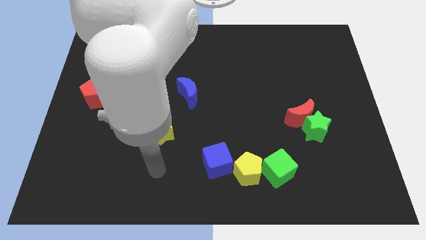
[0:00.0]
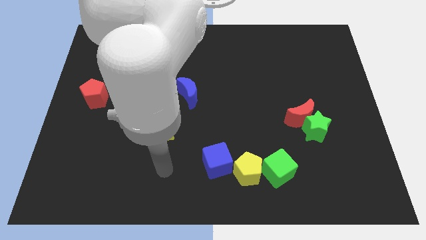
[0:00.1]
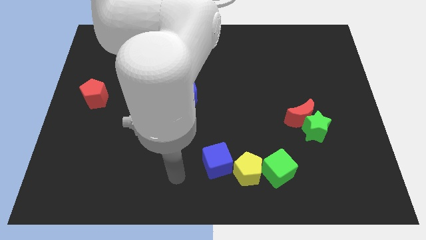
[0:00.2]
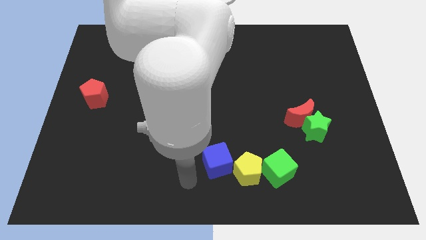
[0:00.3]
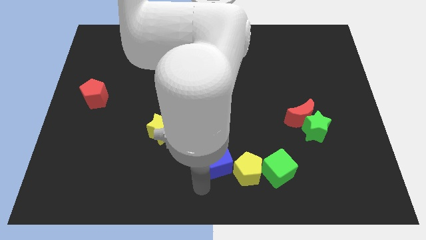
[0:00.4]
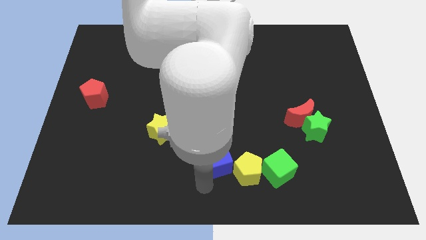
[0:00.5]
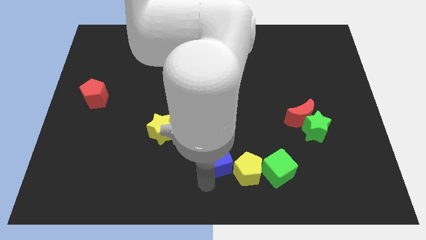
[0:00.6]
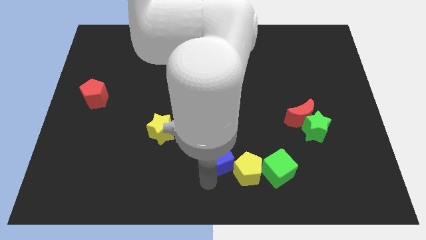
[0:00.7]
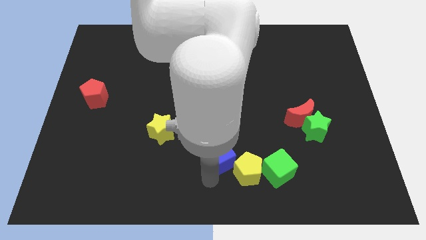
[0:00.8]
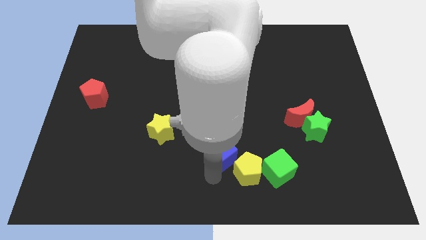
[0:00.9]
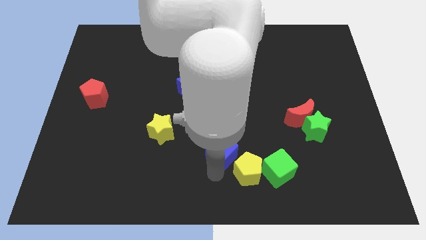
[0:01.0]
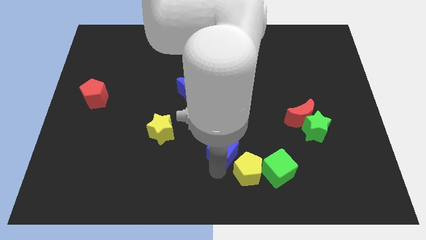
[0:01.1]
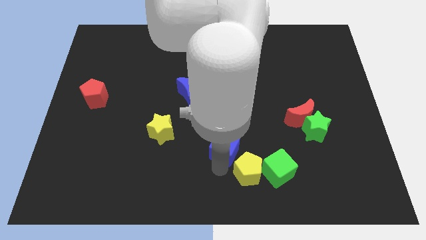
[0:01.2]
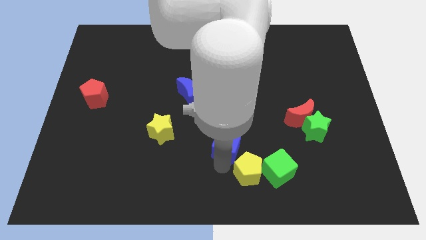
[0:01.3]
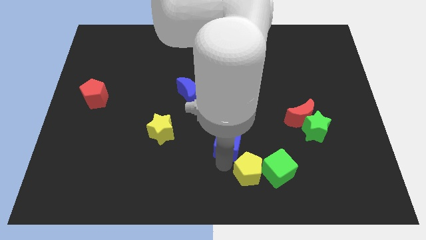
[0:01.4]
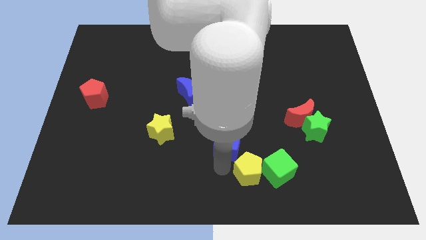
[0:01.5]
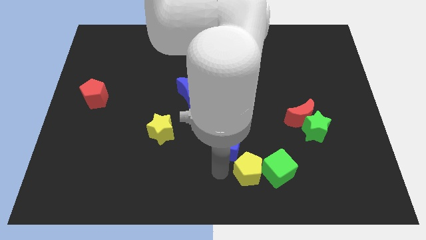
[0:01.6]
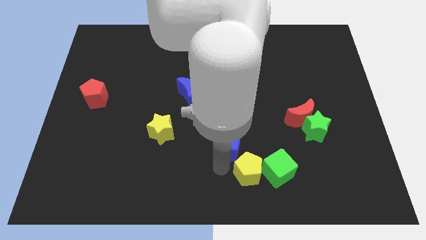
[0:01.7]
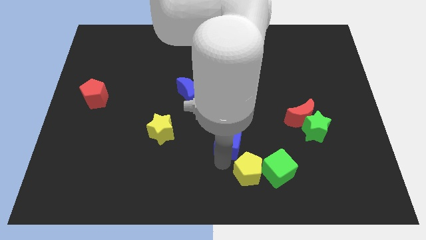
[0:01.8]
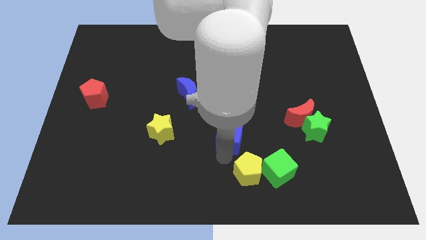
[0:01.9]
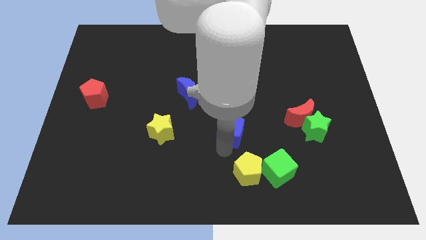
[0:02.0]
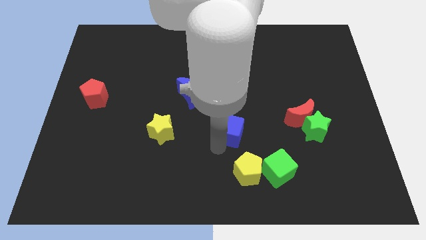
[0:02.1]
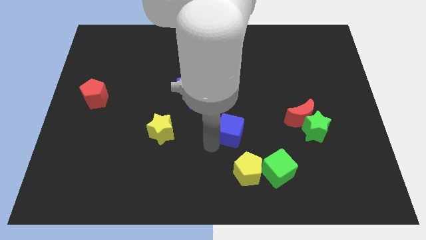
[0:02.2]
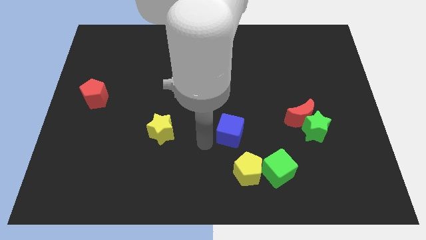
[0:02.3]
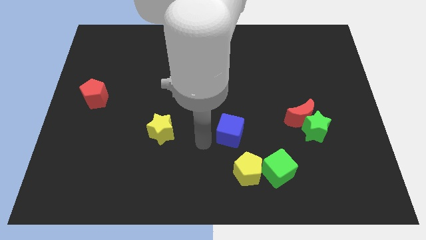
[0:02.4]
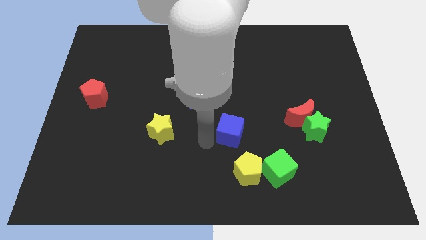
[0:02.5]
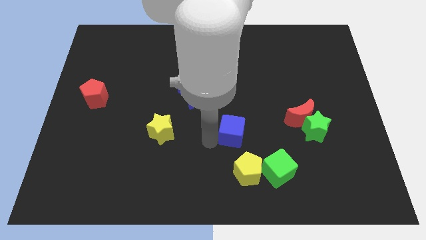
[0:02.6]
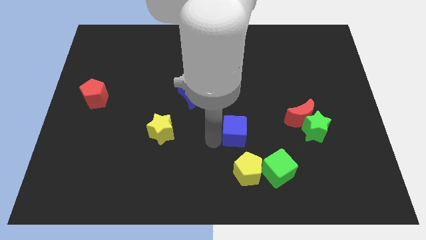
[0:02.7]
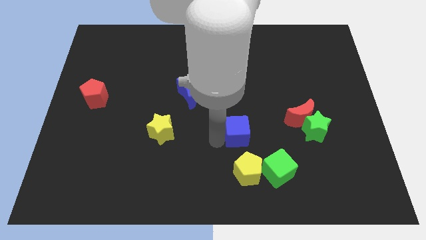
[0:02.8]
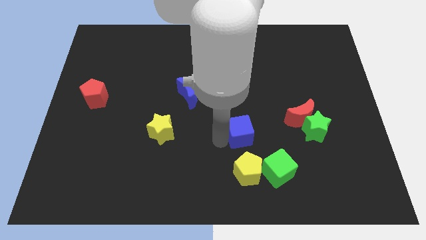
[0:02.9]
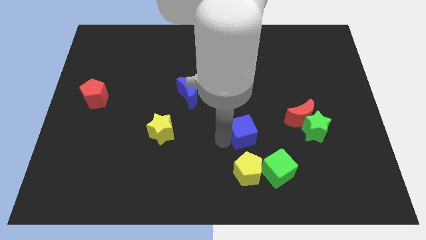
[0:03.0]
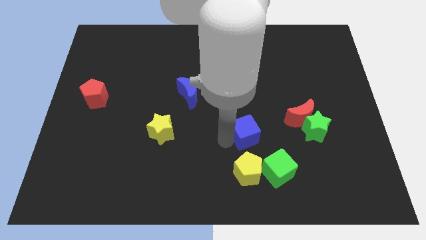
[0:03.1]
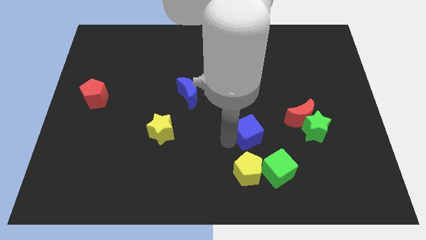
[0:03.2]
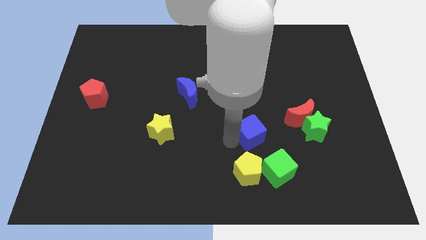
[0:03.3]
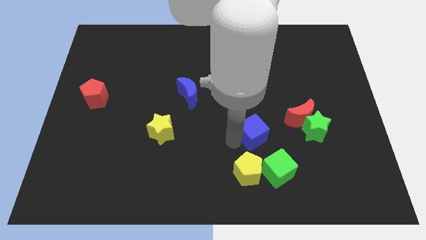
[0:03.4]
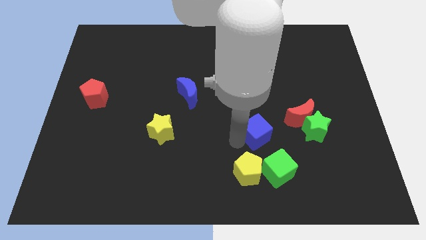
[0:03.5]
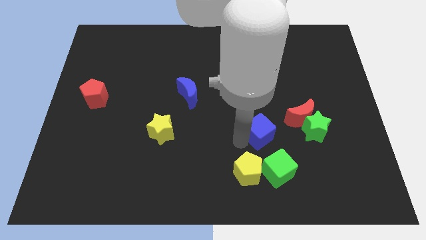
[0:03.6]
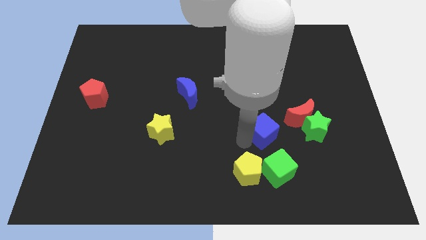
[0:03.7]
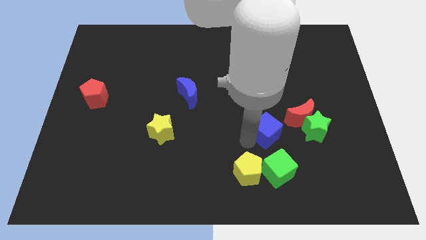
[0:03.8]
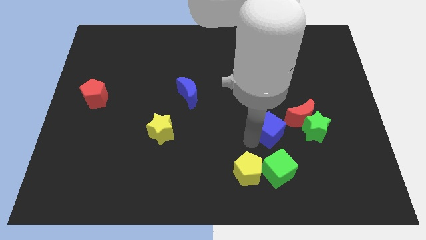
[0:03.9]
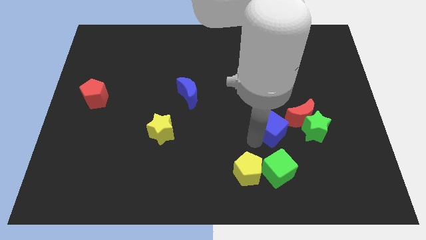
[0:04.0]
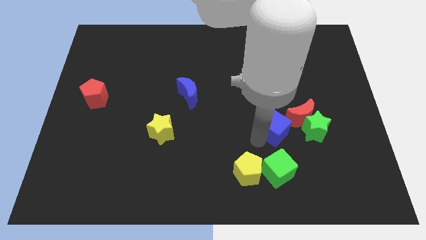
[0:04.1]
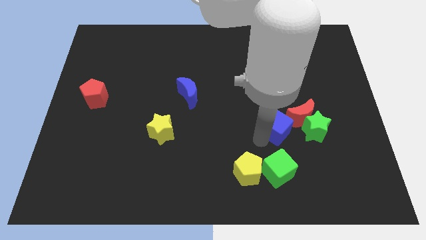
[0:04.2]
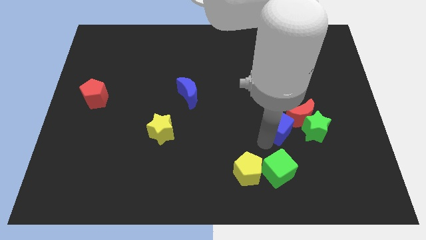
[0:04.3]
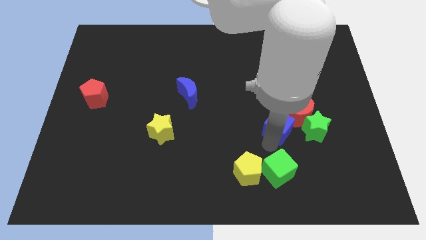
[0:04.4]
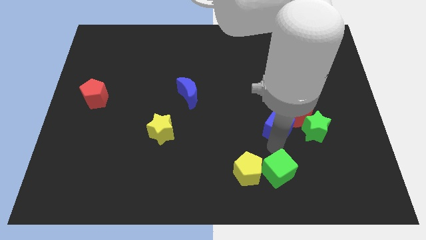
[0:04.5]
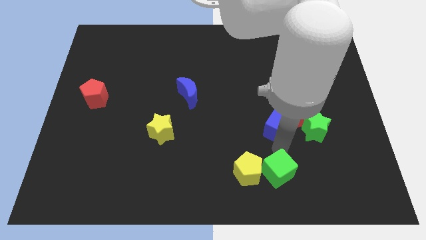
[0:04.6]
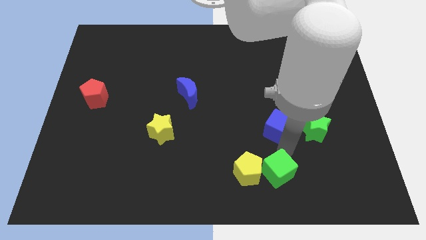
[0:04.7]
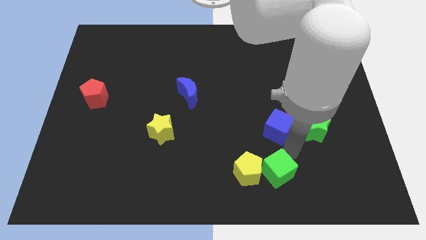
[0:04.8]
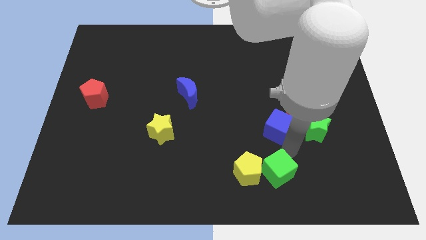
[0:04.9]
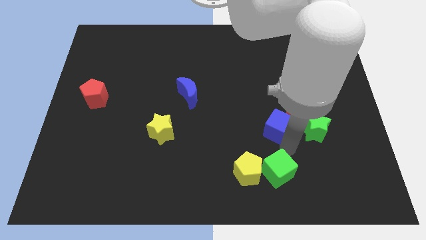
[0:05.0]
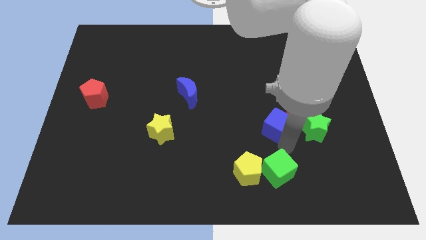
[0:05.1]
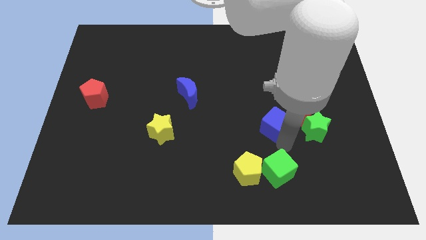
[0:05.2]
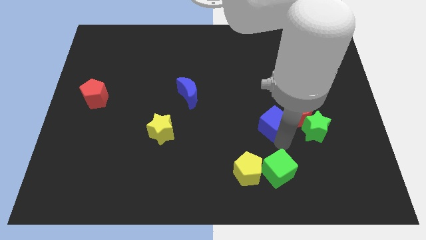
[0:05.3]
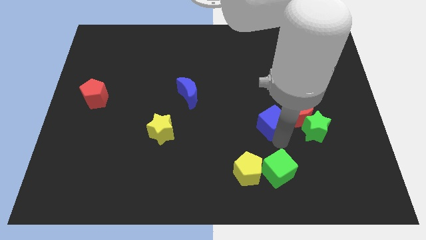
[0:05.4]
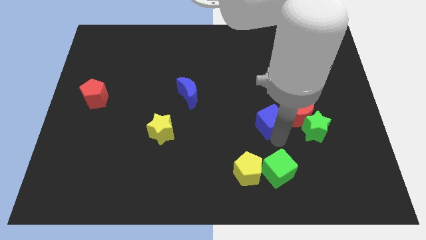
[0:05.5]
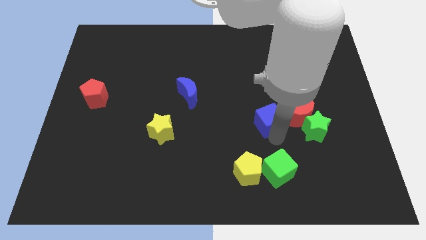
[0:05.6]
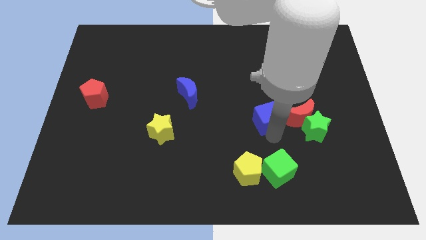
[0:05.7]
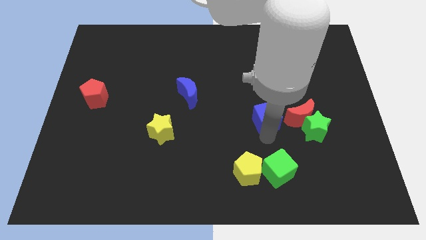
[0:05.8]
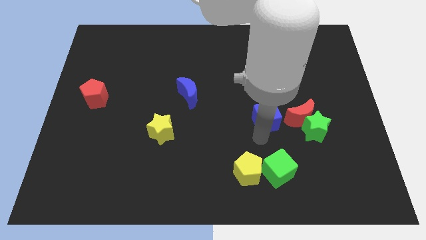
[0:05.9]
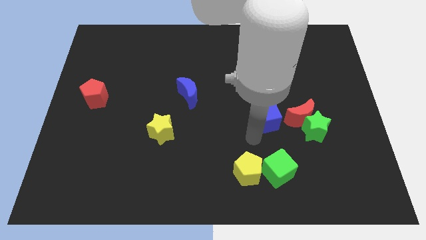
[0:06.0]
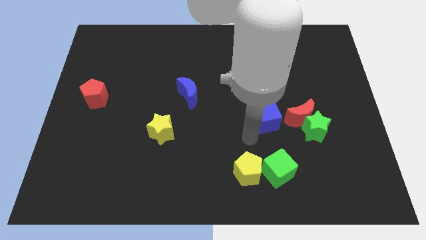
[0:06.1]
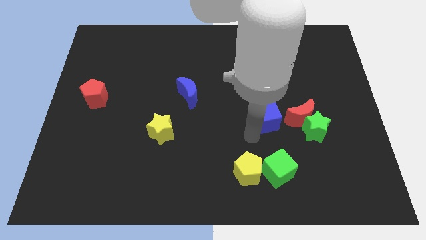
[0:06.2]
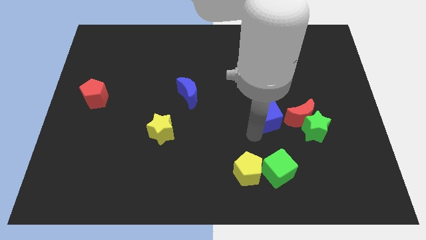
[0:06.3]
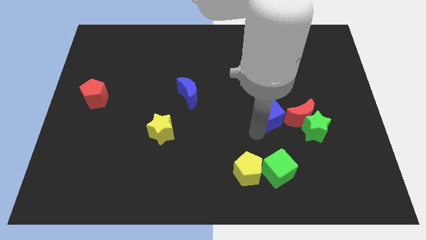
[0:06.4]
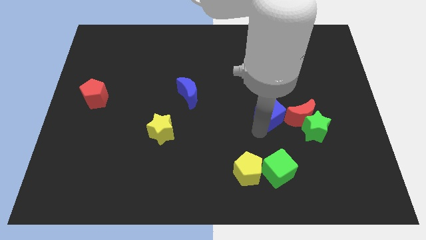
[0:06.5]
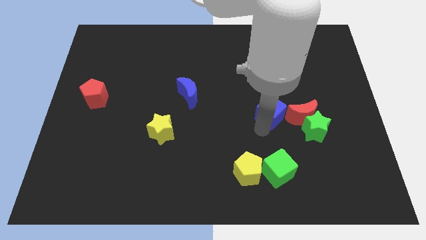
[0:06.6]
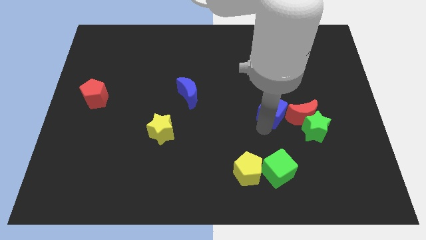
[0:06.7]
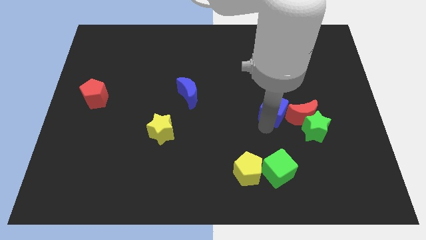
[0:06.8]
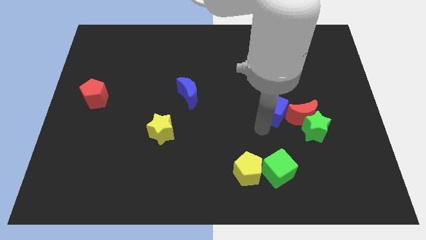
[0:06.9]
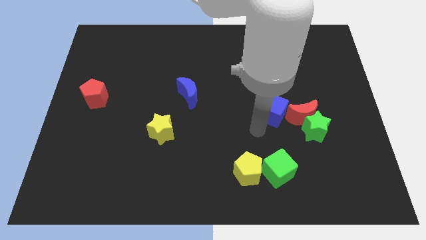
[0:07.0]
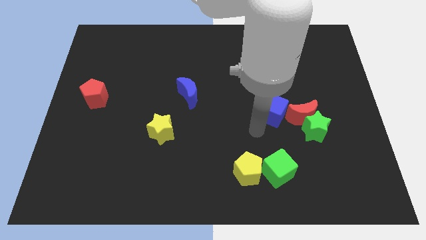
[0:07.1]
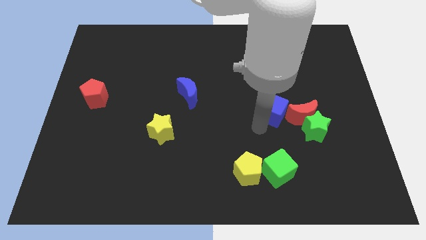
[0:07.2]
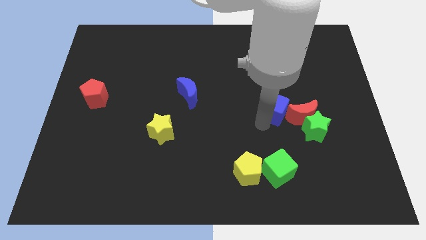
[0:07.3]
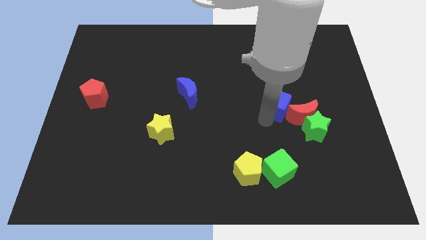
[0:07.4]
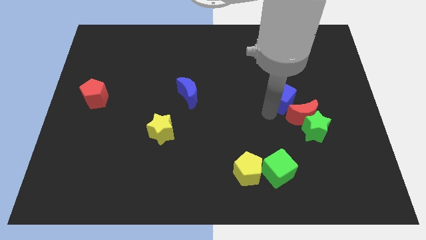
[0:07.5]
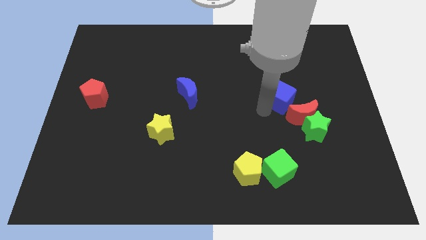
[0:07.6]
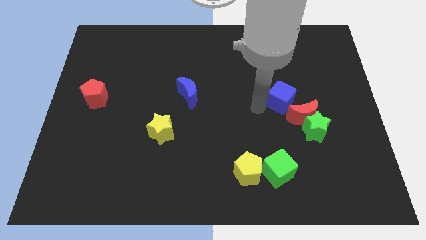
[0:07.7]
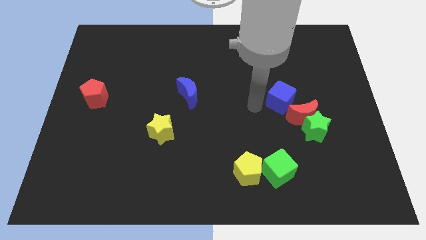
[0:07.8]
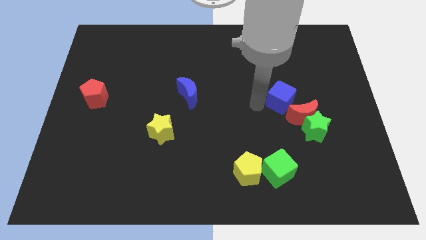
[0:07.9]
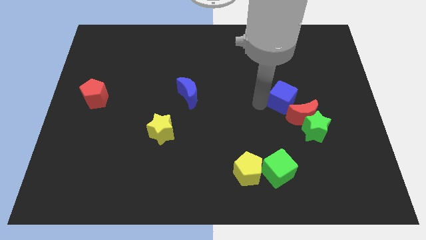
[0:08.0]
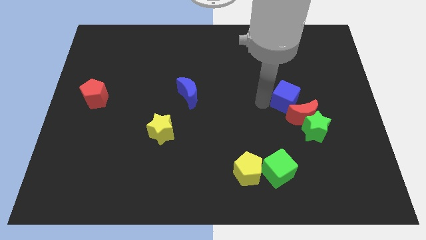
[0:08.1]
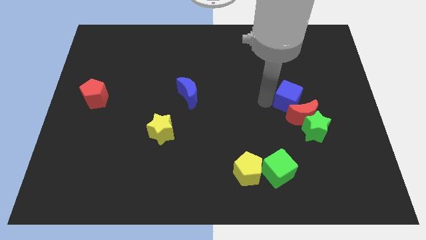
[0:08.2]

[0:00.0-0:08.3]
slide the blue cube to the top of the green star
